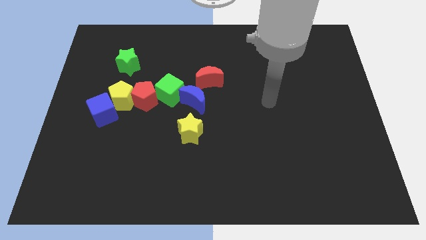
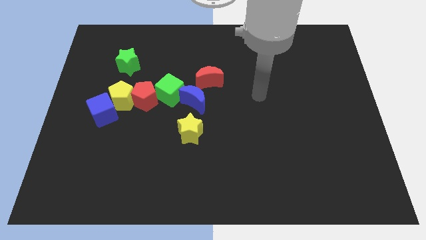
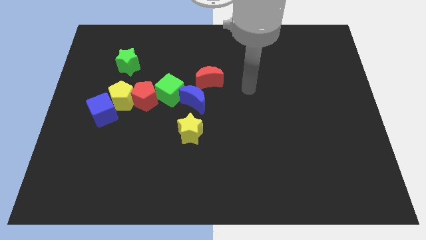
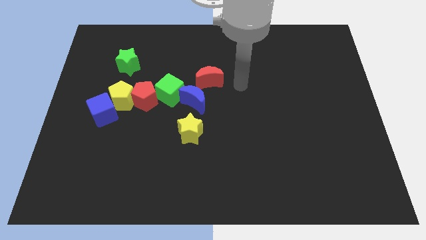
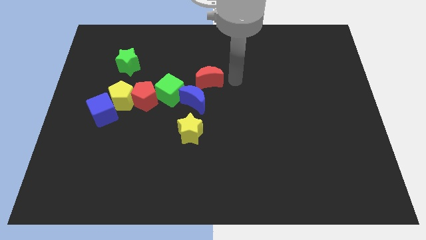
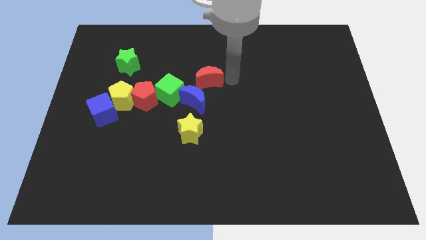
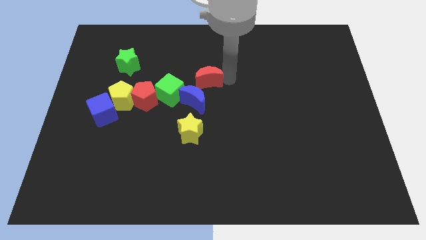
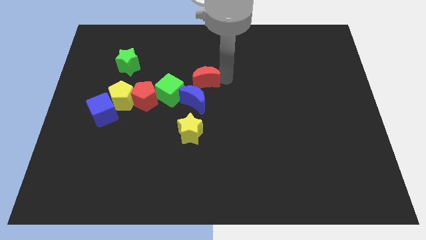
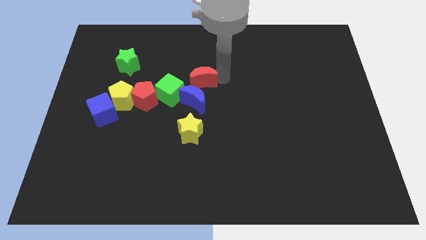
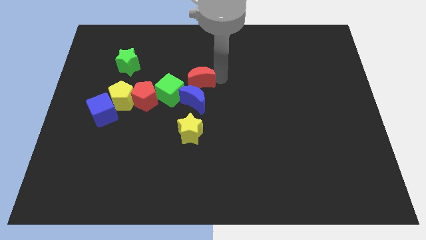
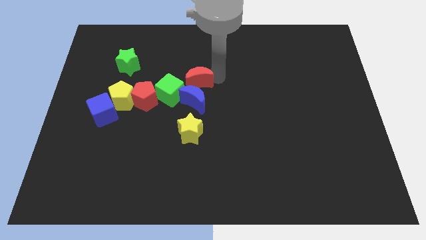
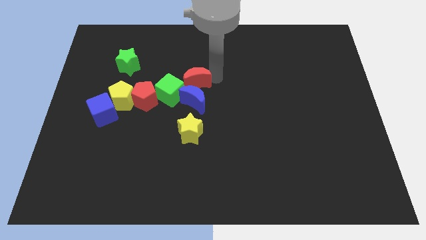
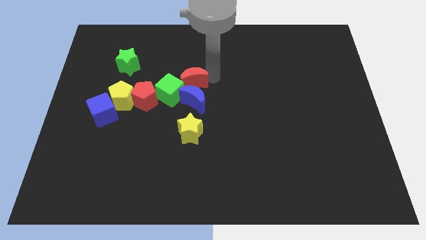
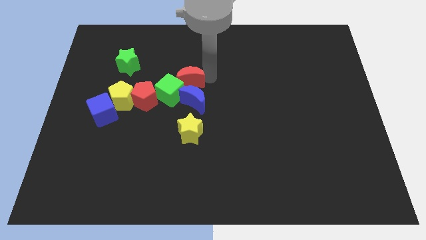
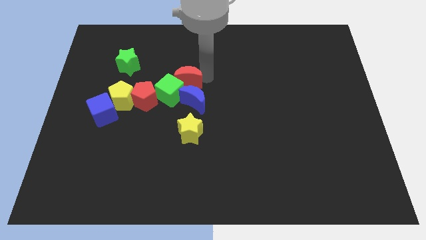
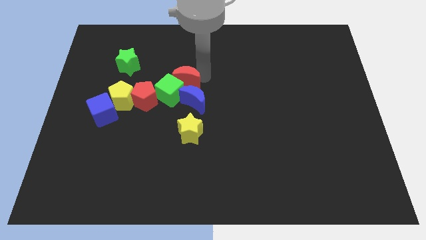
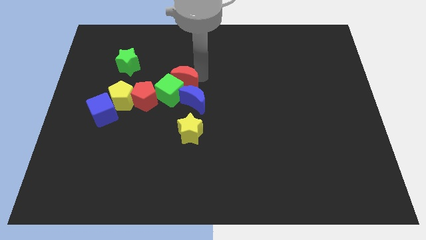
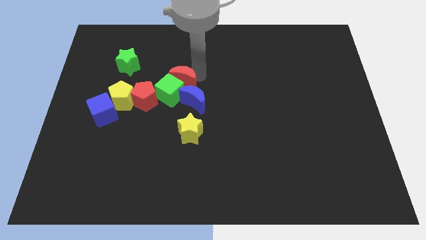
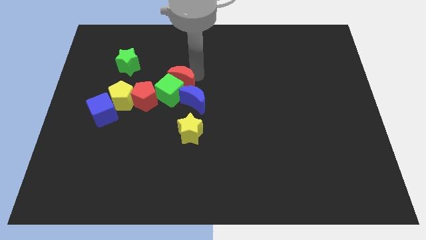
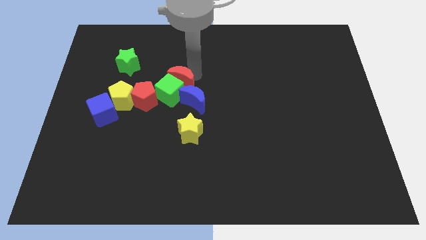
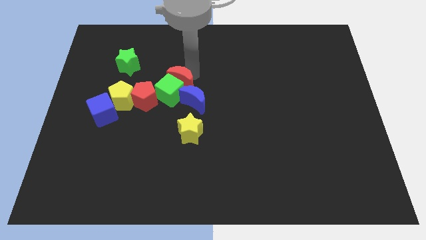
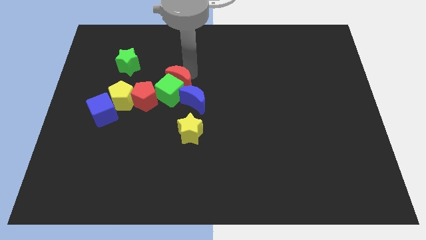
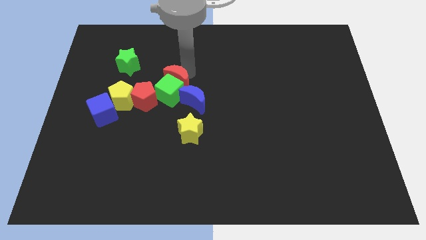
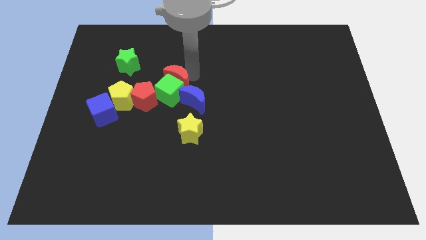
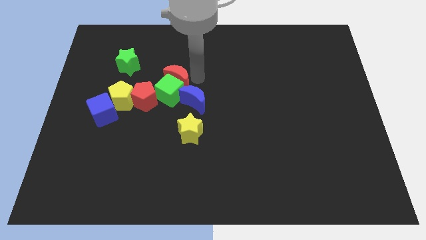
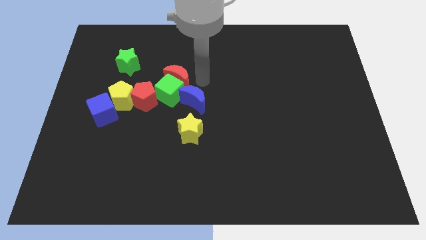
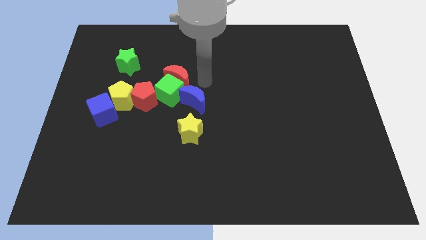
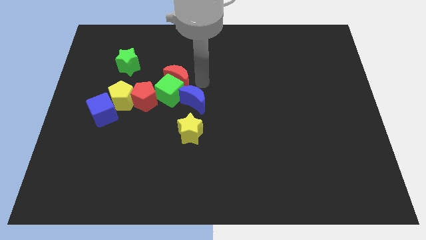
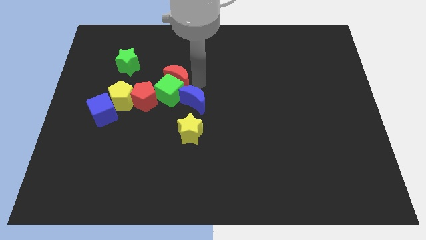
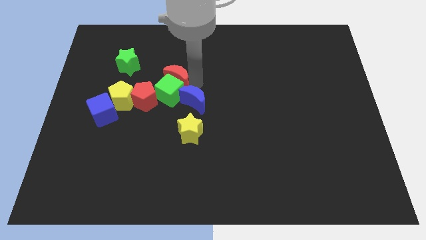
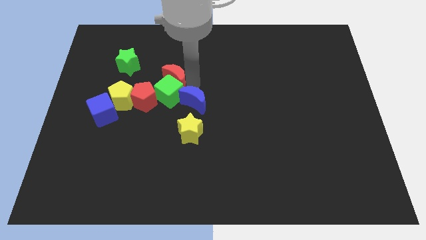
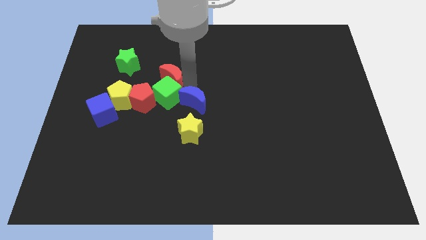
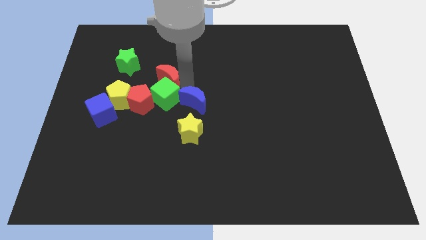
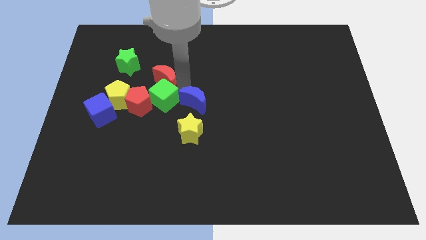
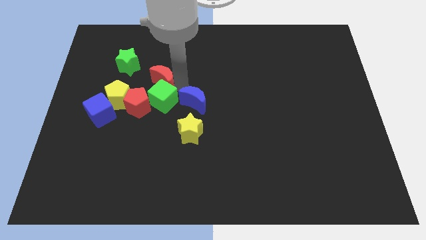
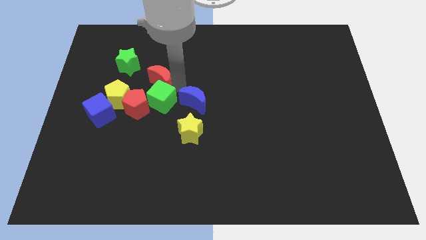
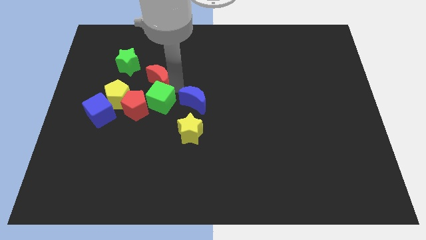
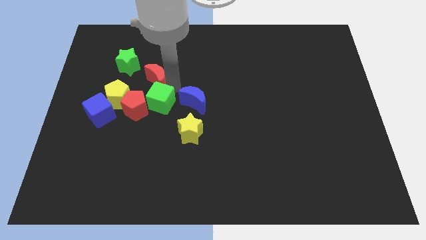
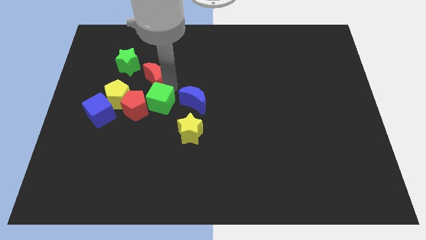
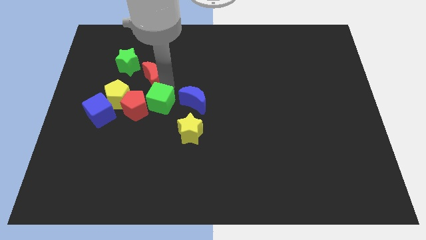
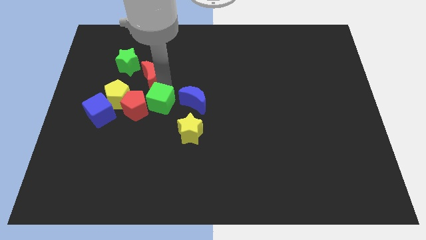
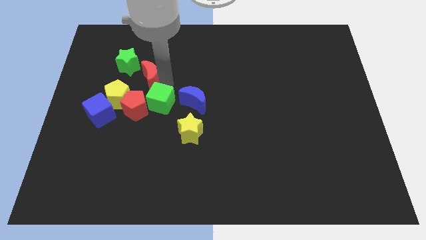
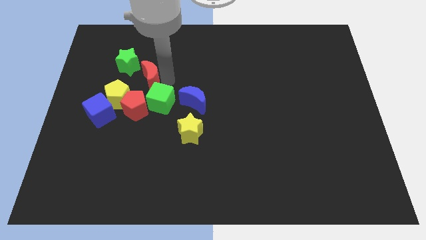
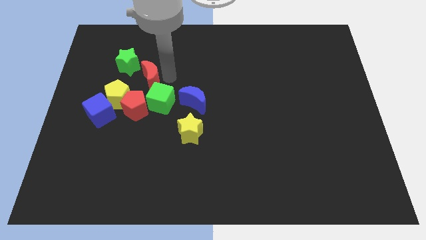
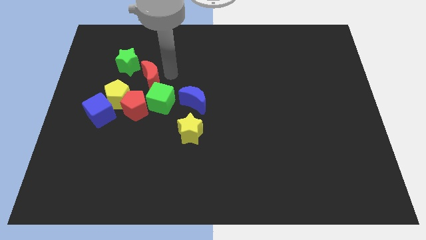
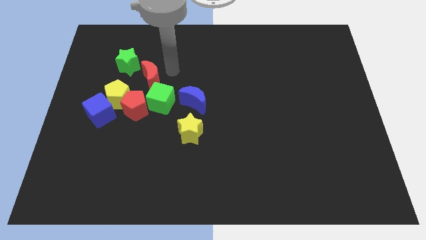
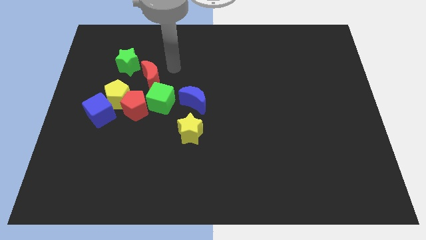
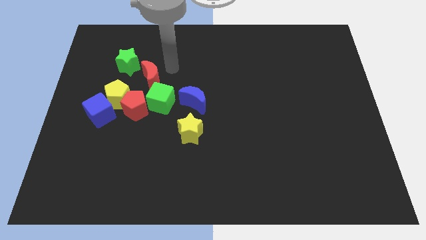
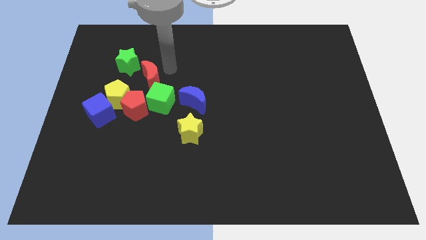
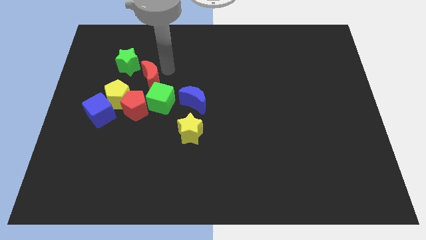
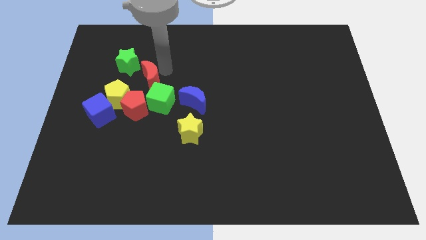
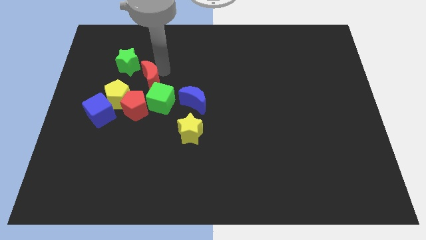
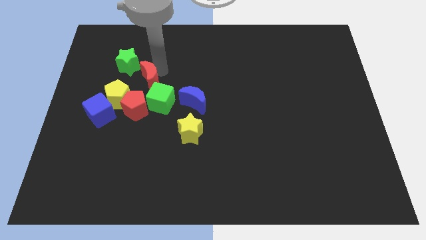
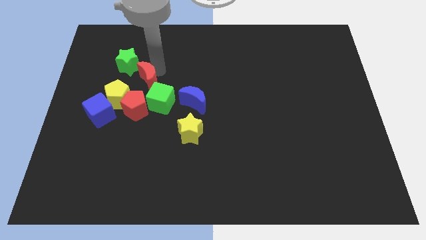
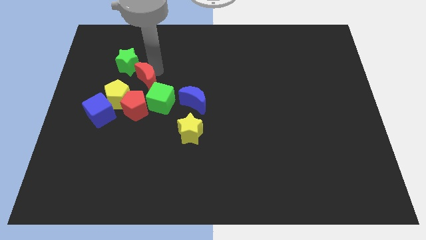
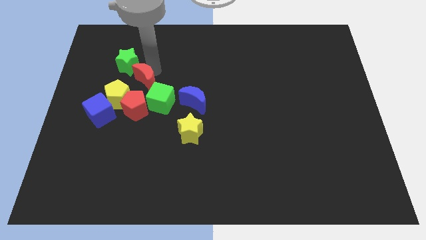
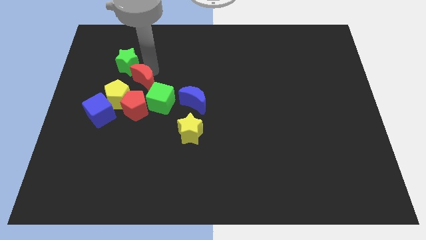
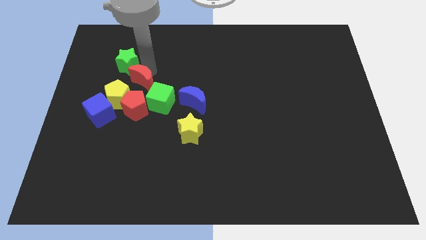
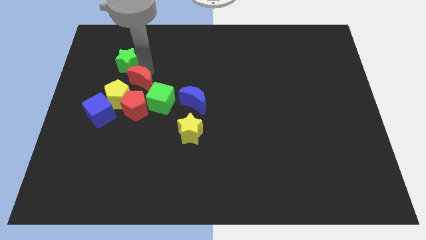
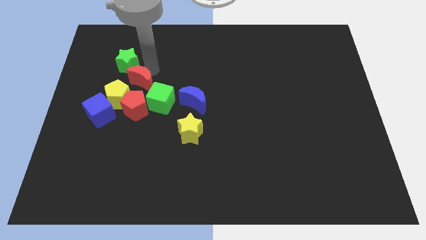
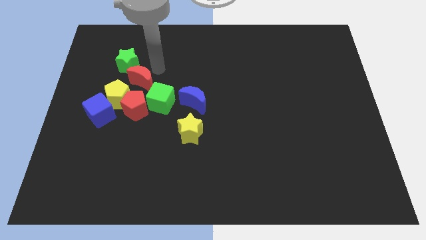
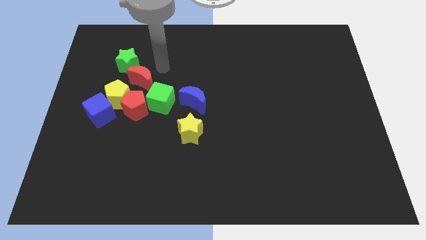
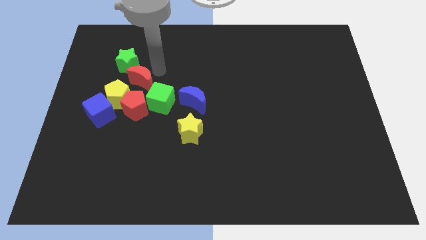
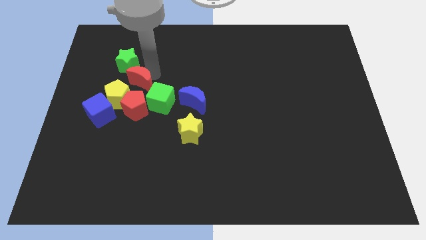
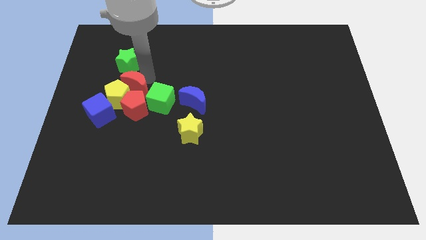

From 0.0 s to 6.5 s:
put the red moon close to the yellow pentagon
